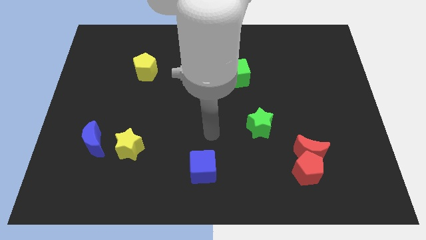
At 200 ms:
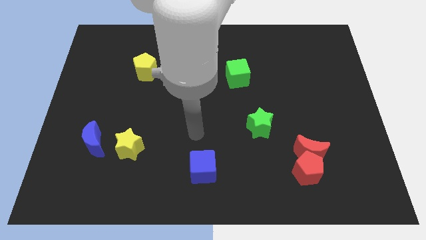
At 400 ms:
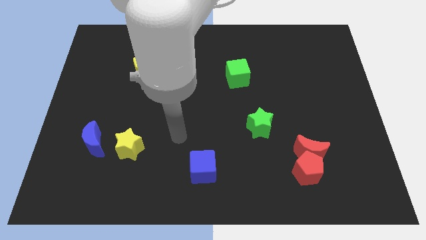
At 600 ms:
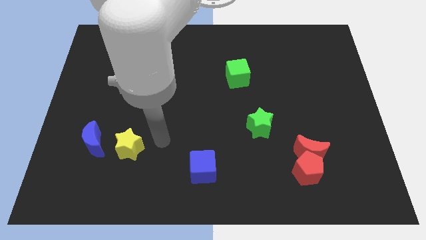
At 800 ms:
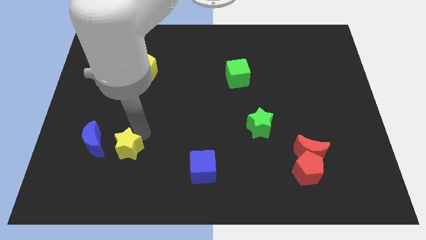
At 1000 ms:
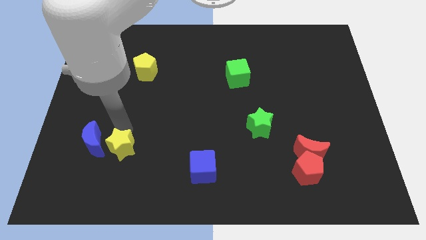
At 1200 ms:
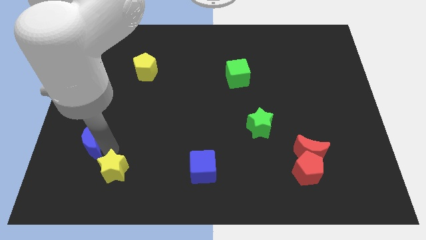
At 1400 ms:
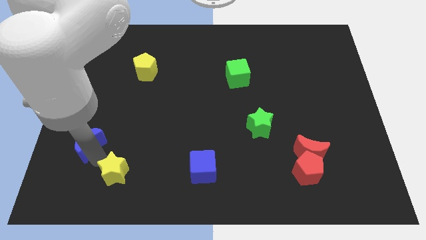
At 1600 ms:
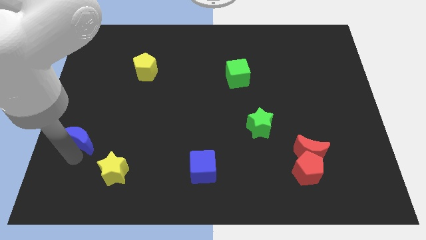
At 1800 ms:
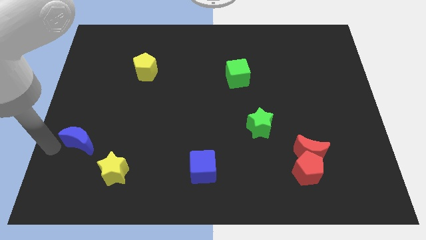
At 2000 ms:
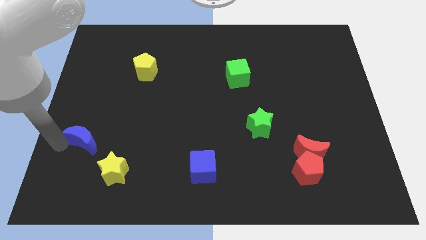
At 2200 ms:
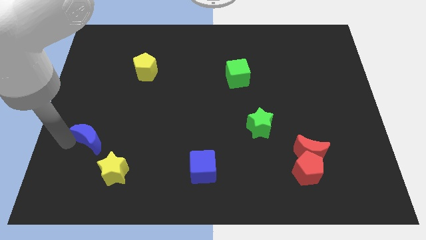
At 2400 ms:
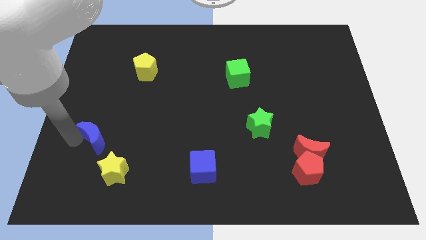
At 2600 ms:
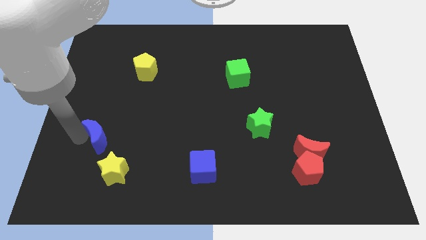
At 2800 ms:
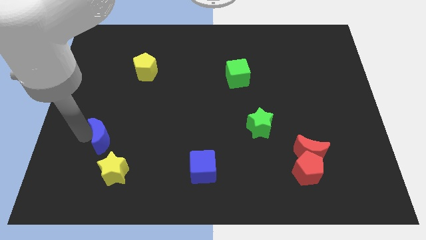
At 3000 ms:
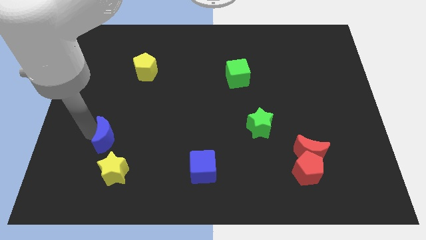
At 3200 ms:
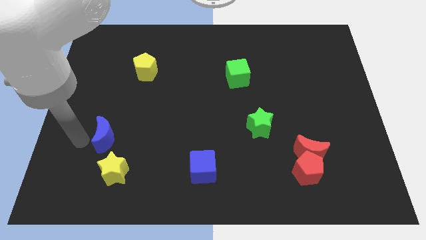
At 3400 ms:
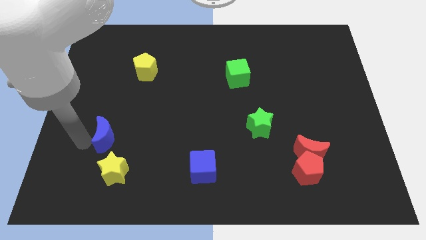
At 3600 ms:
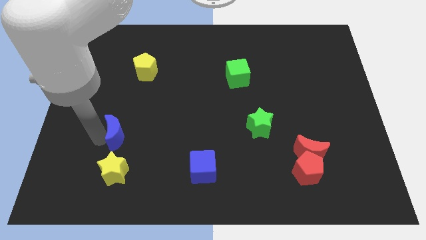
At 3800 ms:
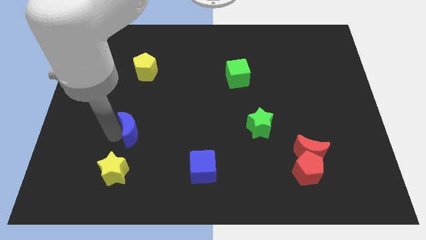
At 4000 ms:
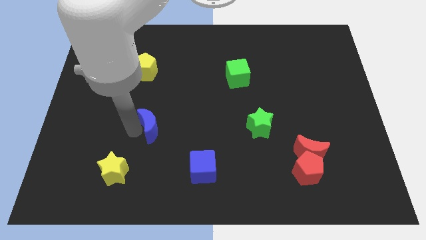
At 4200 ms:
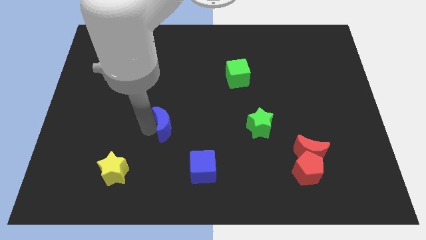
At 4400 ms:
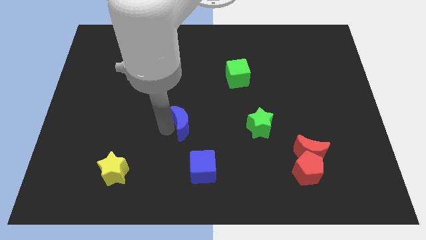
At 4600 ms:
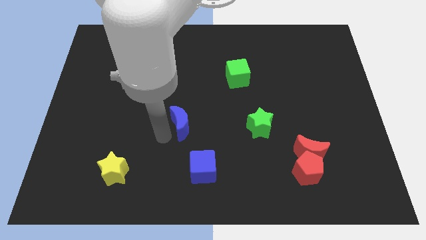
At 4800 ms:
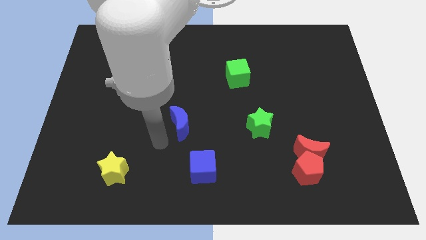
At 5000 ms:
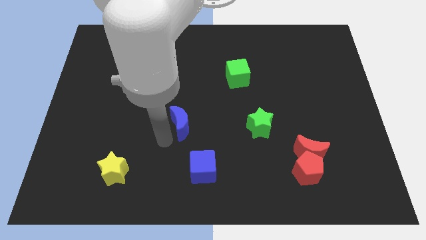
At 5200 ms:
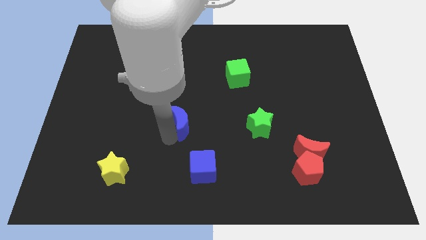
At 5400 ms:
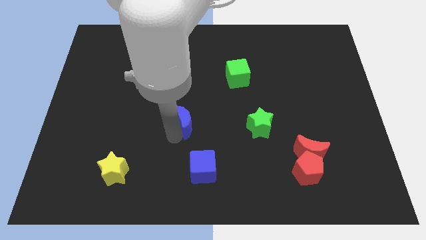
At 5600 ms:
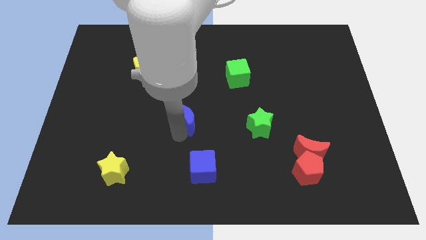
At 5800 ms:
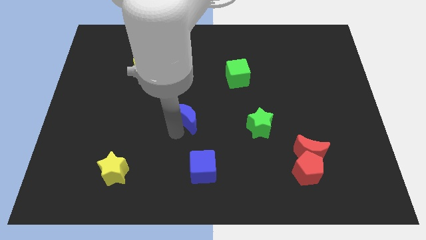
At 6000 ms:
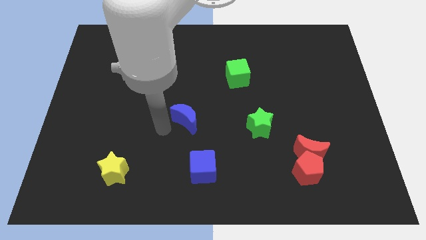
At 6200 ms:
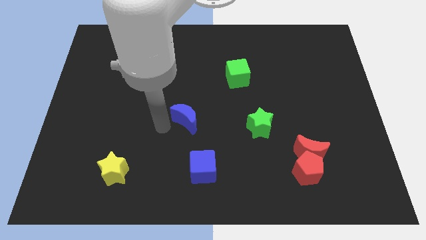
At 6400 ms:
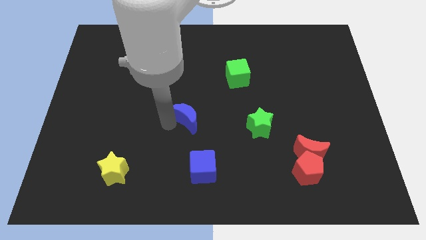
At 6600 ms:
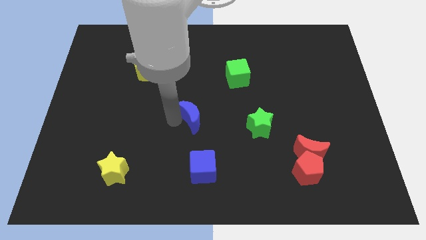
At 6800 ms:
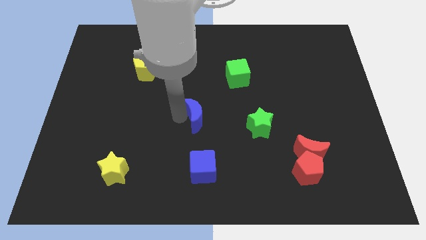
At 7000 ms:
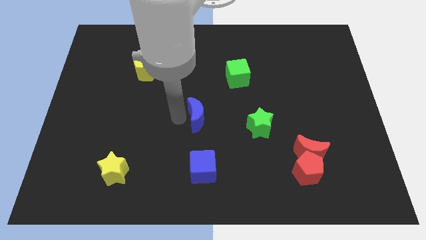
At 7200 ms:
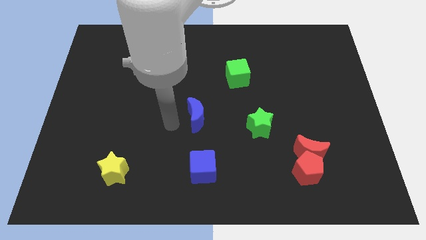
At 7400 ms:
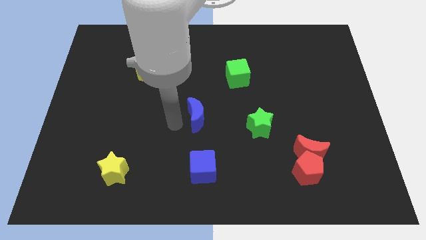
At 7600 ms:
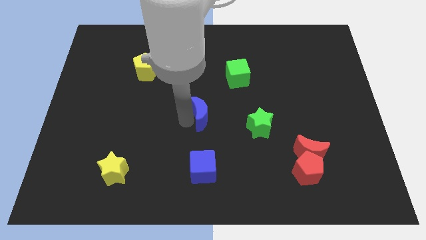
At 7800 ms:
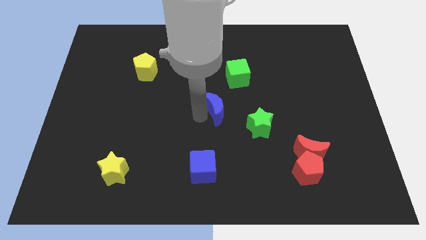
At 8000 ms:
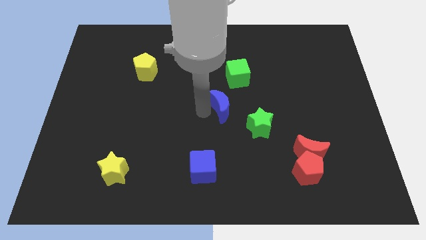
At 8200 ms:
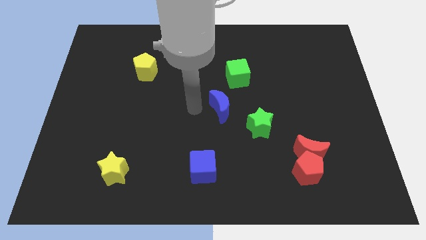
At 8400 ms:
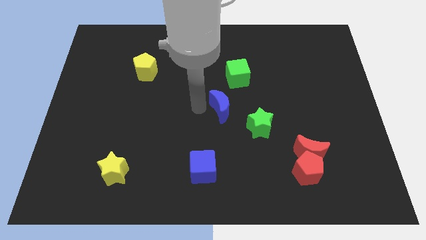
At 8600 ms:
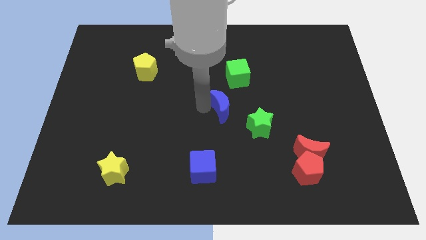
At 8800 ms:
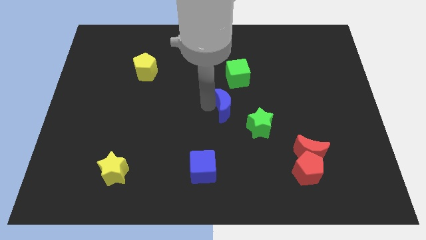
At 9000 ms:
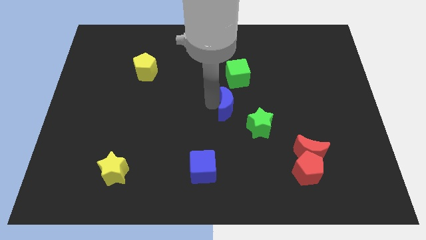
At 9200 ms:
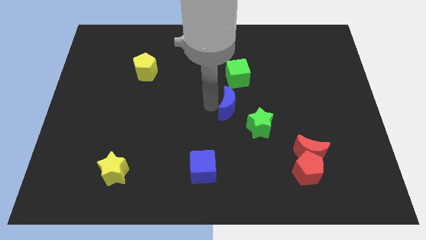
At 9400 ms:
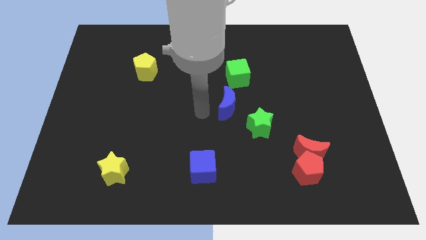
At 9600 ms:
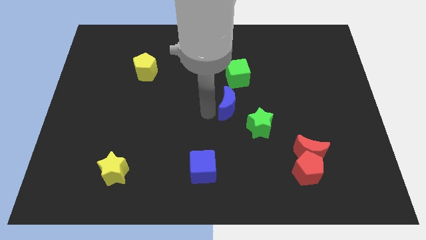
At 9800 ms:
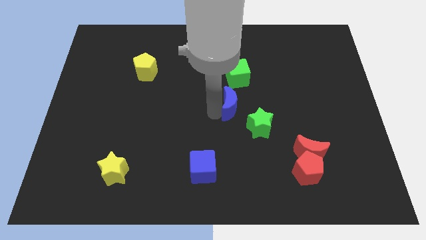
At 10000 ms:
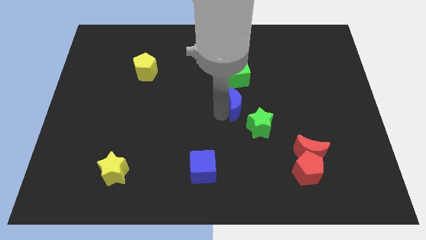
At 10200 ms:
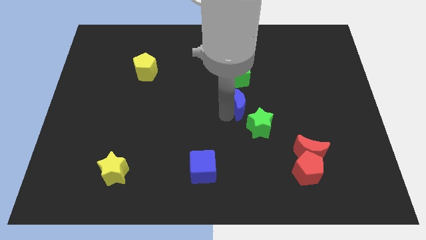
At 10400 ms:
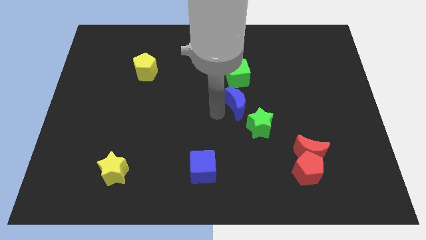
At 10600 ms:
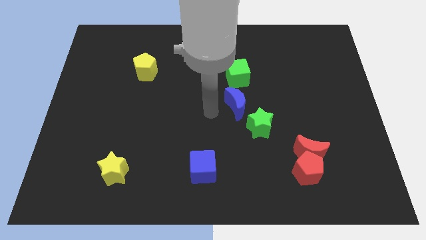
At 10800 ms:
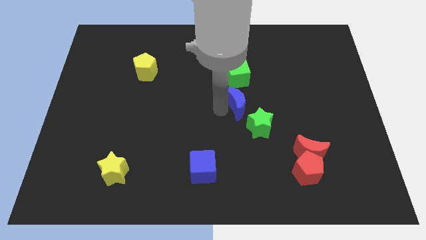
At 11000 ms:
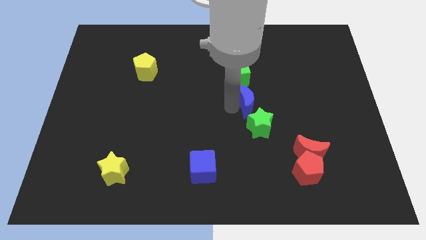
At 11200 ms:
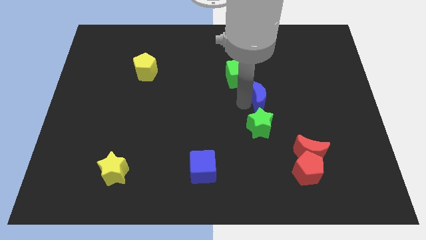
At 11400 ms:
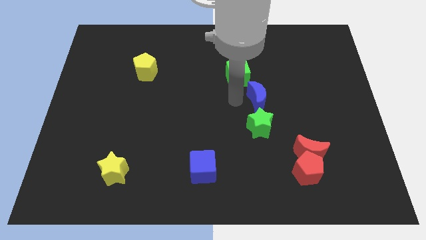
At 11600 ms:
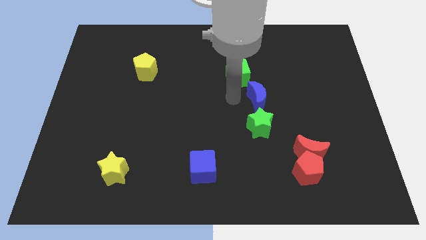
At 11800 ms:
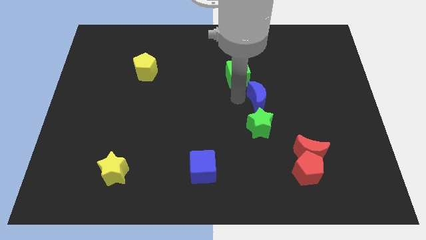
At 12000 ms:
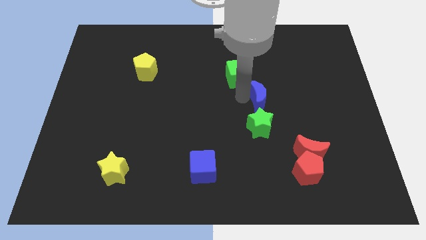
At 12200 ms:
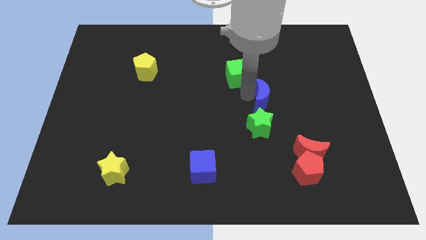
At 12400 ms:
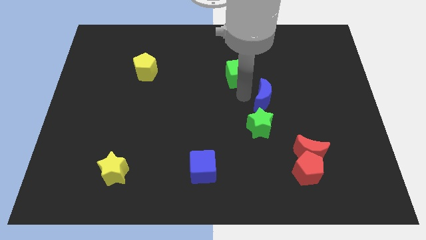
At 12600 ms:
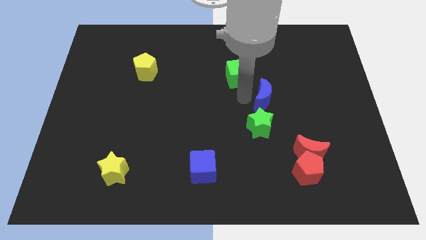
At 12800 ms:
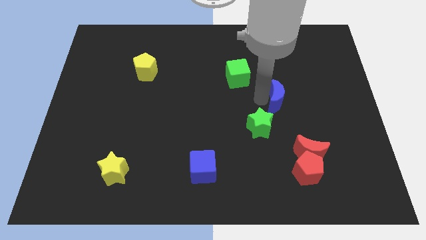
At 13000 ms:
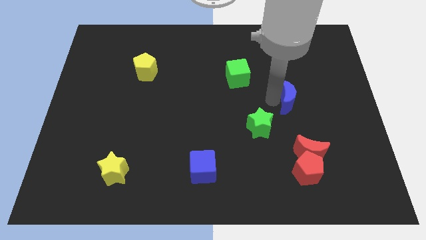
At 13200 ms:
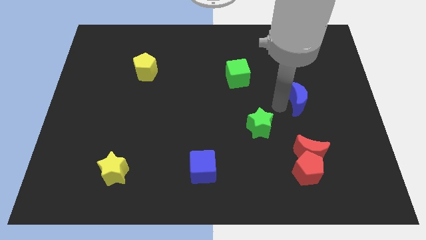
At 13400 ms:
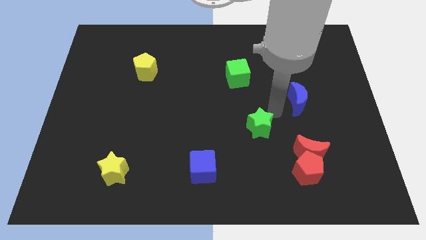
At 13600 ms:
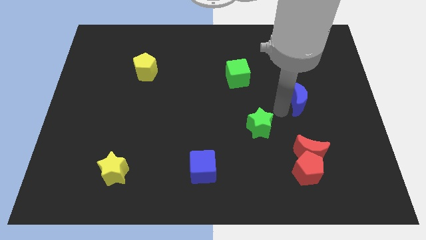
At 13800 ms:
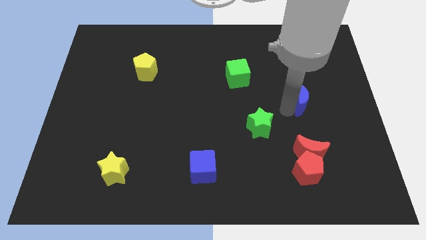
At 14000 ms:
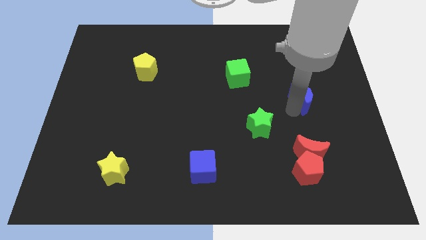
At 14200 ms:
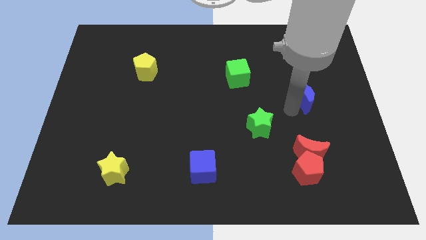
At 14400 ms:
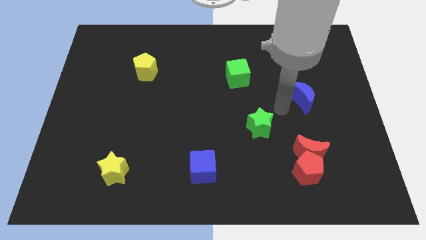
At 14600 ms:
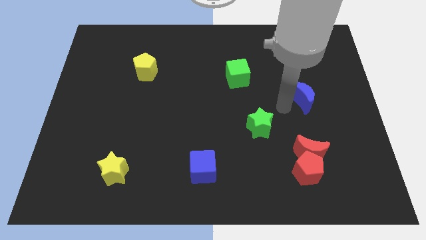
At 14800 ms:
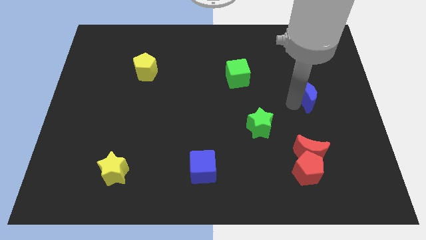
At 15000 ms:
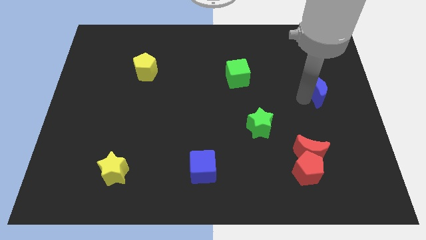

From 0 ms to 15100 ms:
move the blue moon to the center right
